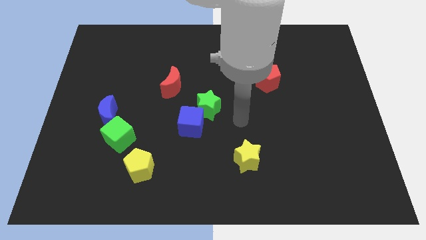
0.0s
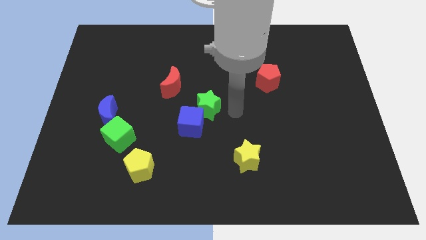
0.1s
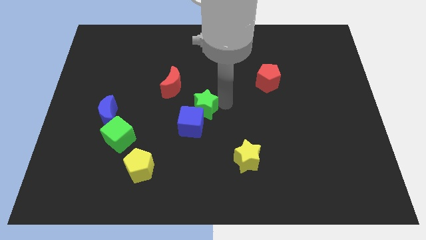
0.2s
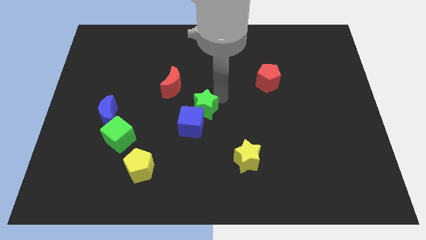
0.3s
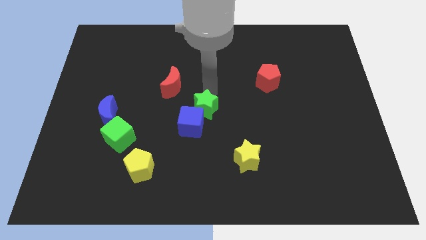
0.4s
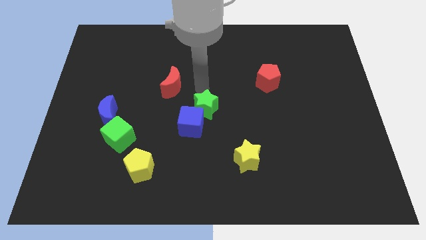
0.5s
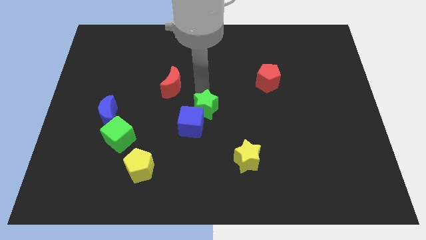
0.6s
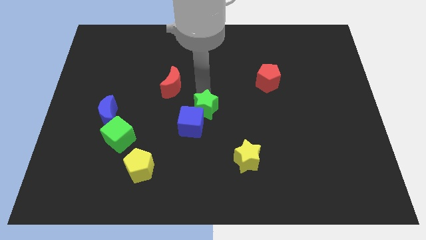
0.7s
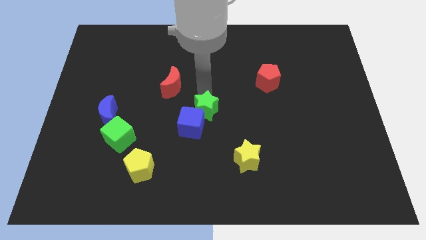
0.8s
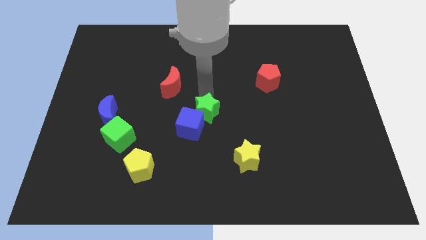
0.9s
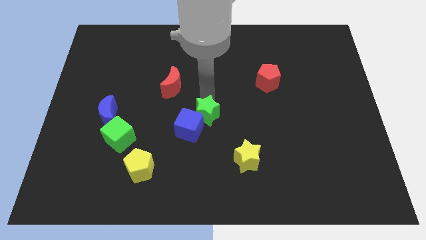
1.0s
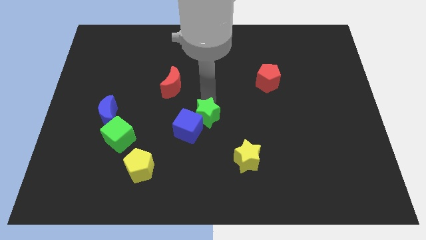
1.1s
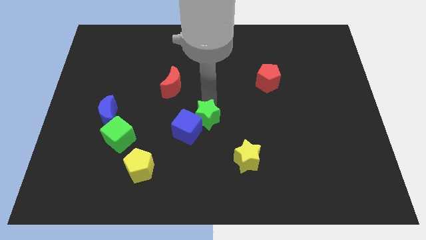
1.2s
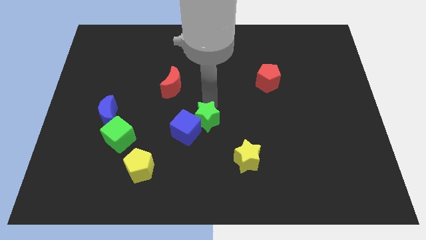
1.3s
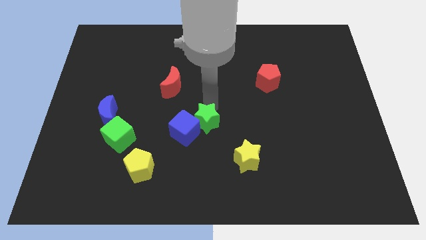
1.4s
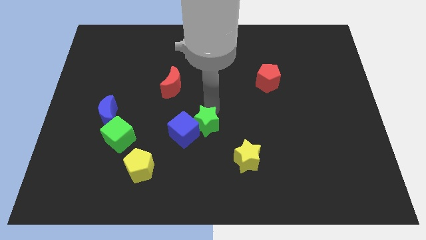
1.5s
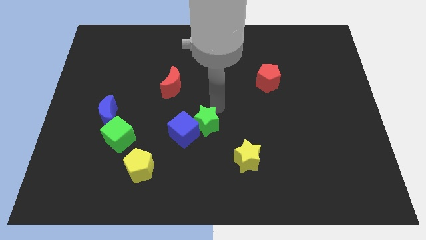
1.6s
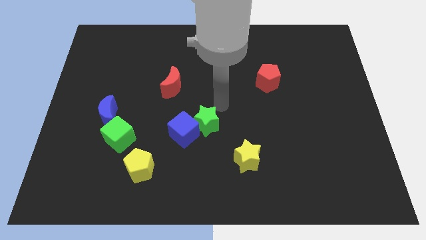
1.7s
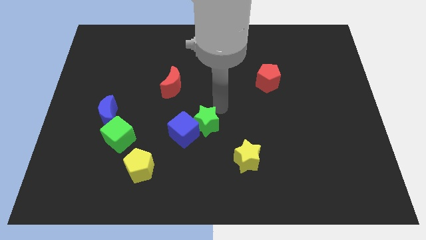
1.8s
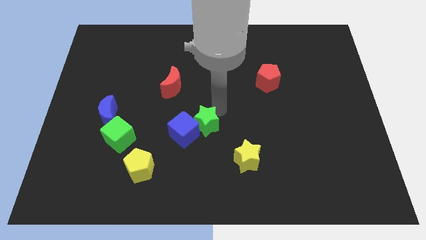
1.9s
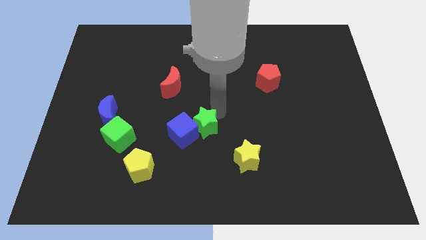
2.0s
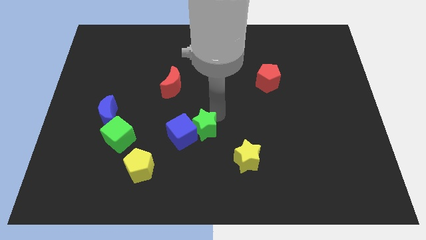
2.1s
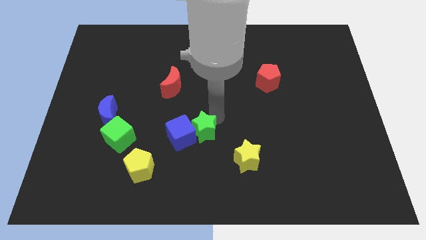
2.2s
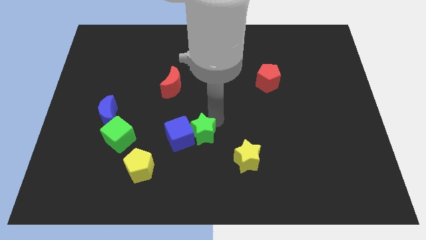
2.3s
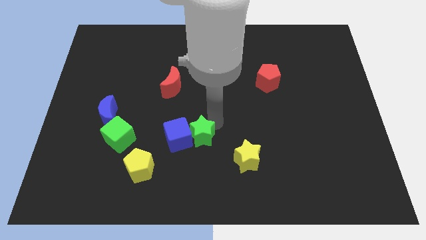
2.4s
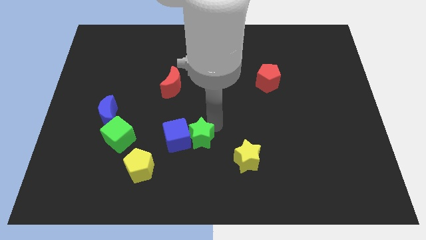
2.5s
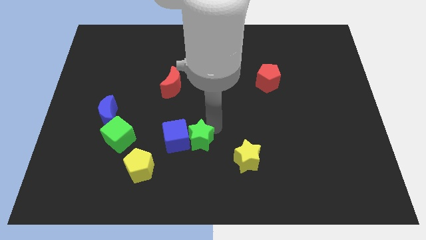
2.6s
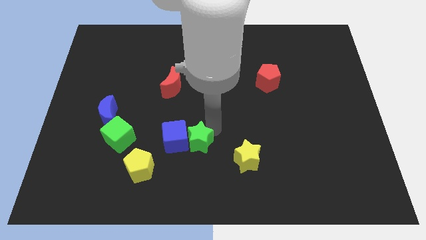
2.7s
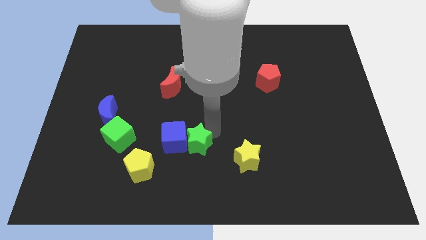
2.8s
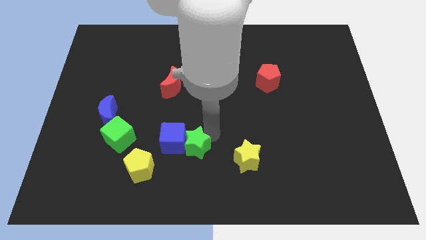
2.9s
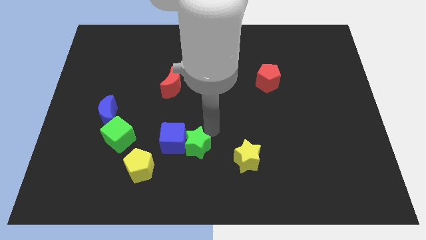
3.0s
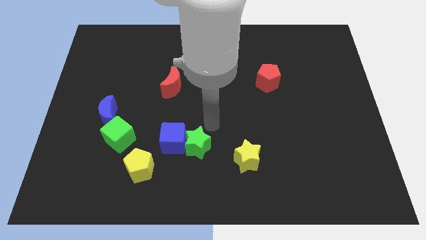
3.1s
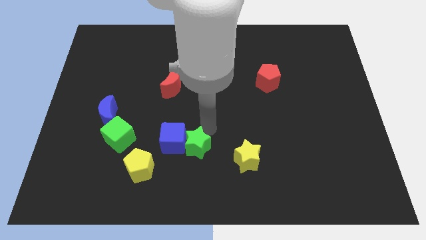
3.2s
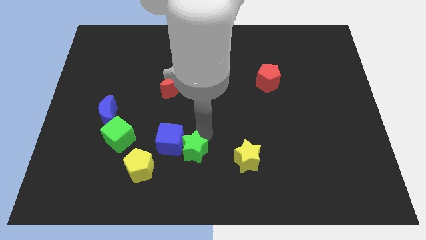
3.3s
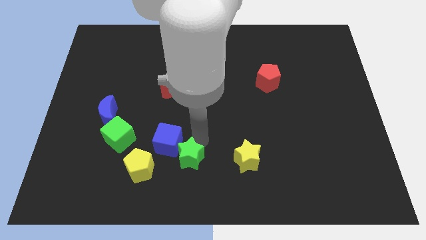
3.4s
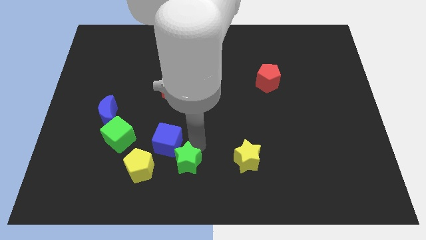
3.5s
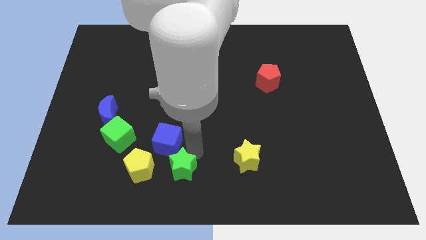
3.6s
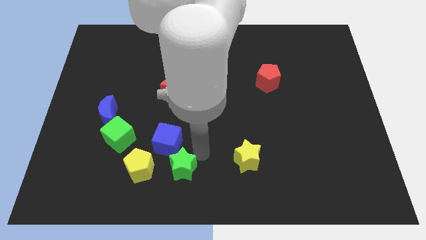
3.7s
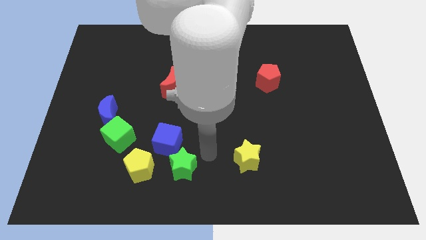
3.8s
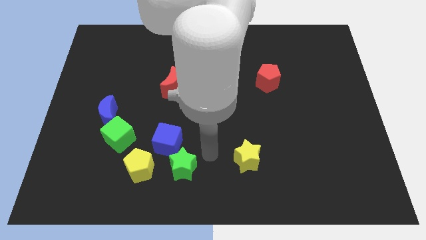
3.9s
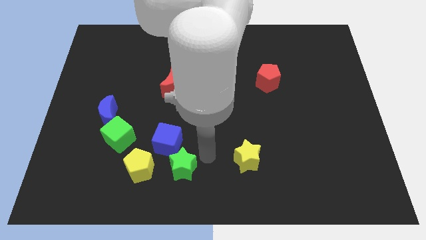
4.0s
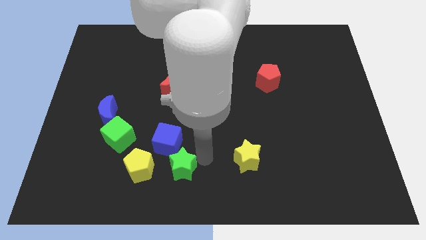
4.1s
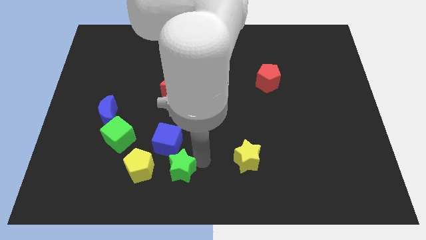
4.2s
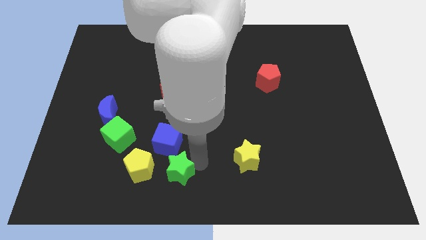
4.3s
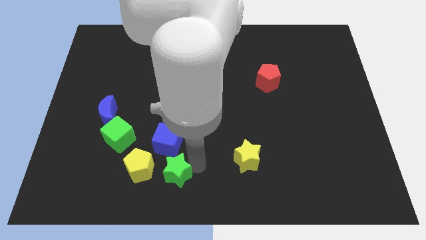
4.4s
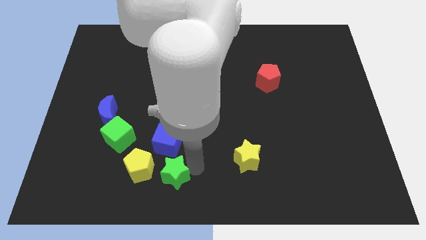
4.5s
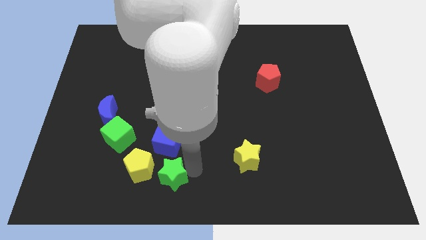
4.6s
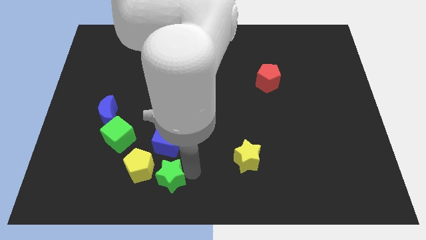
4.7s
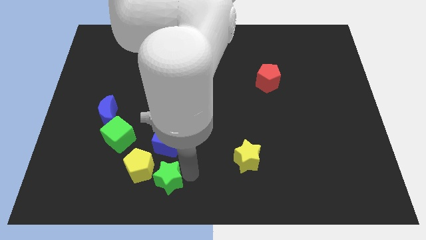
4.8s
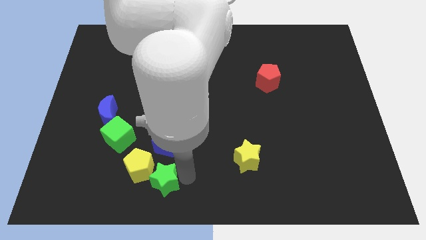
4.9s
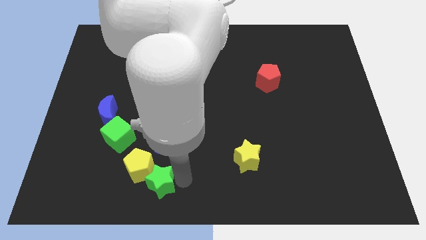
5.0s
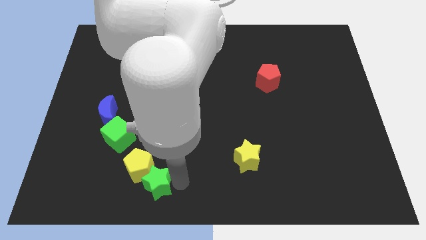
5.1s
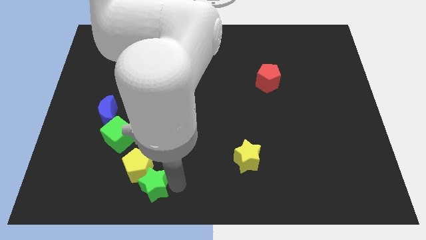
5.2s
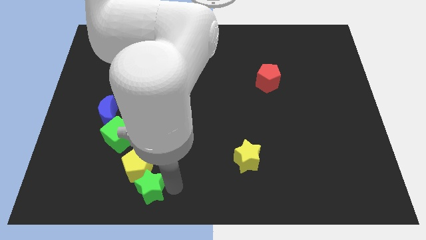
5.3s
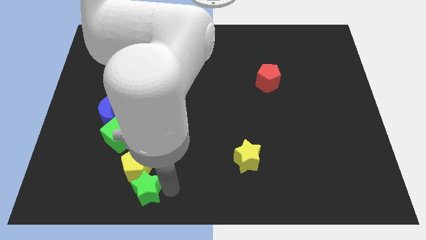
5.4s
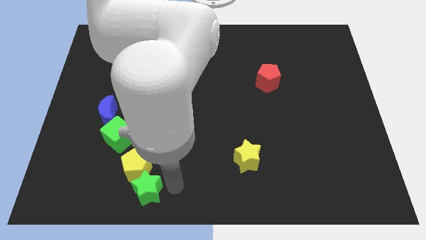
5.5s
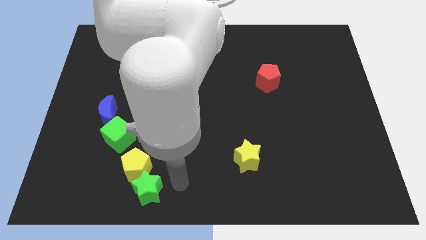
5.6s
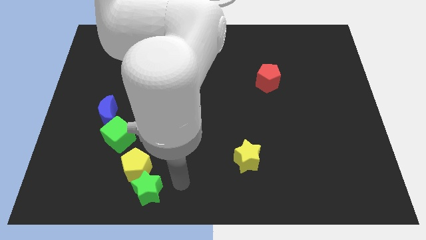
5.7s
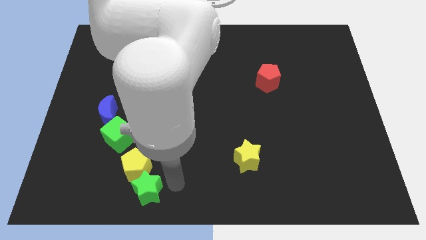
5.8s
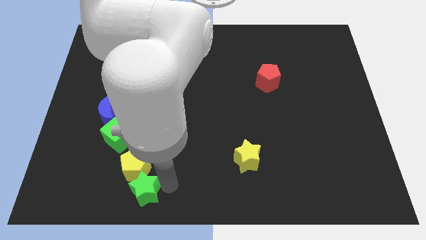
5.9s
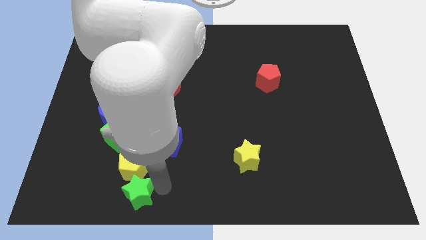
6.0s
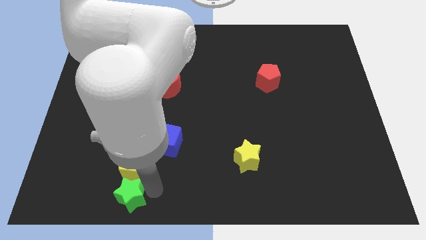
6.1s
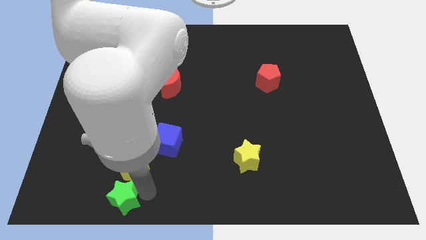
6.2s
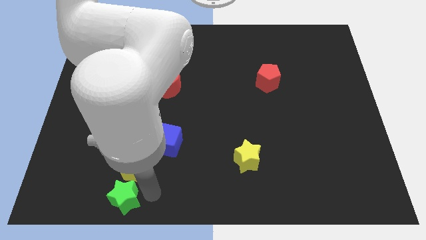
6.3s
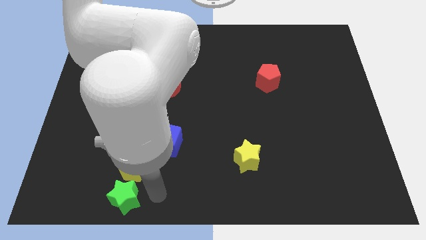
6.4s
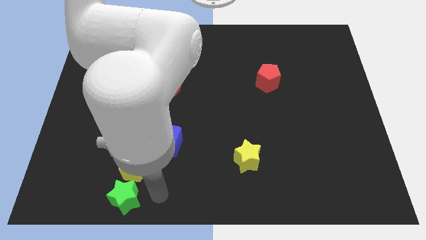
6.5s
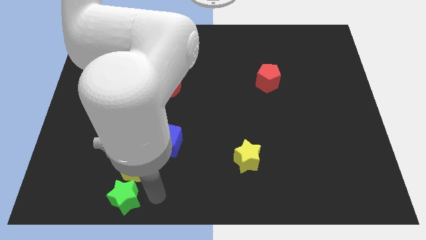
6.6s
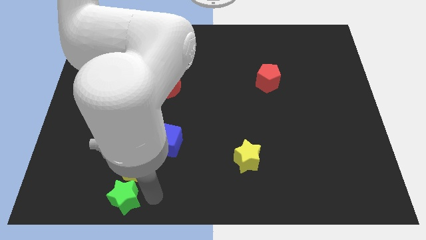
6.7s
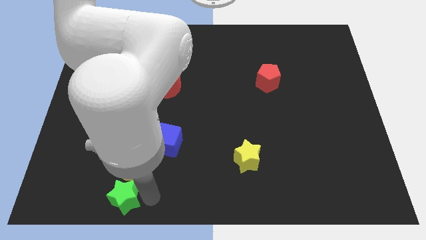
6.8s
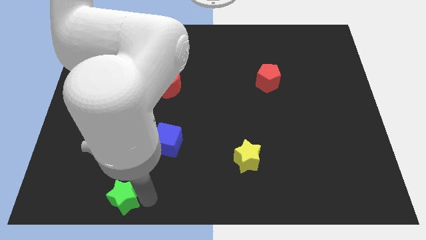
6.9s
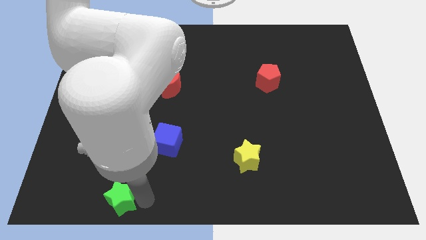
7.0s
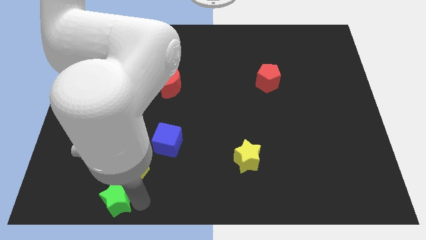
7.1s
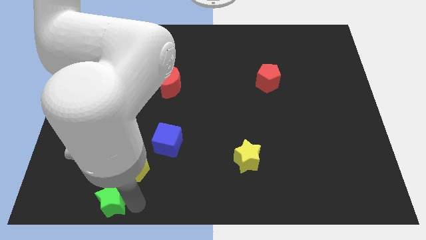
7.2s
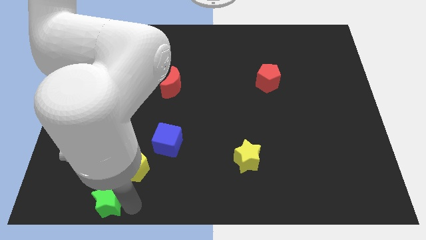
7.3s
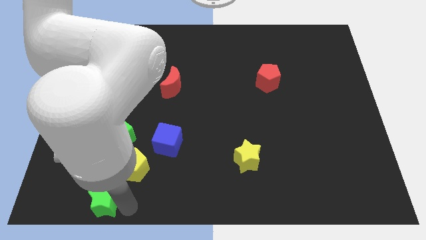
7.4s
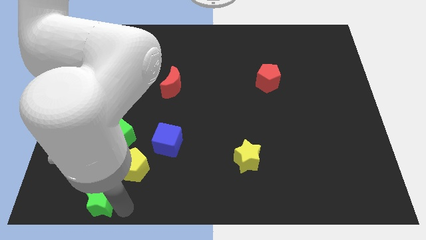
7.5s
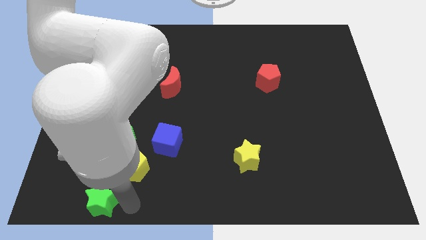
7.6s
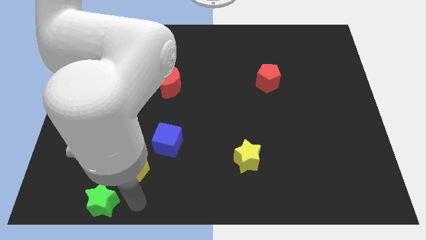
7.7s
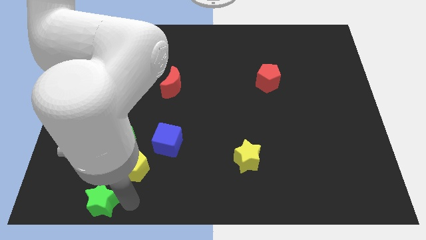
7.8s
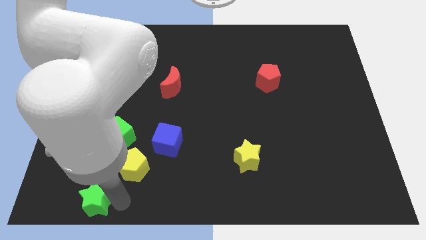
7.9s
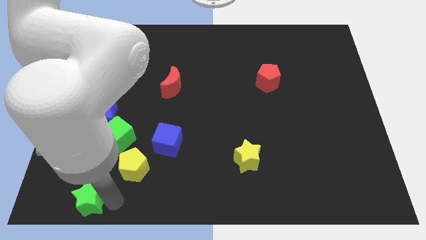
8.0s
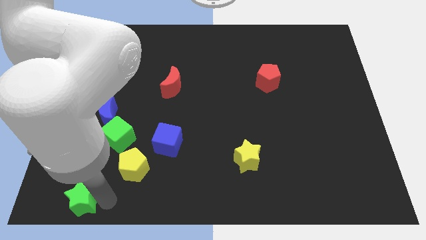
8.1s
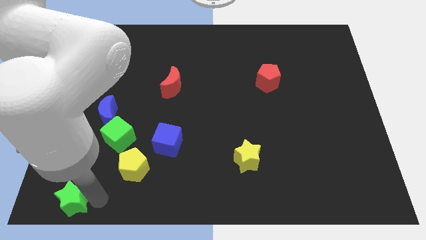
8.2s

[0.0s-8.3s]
move the green star to the lower left corner
